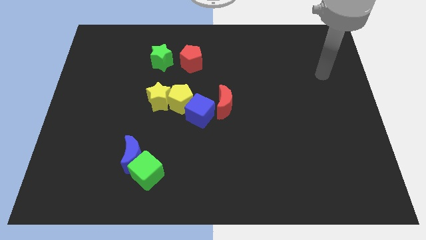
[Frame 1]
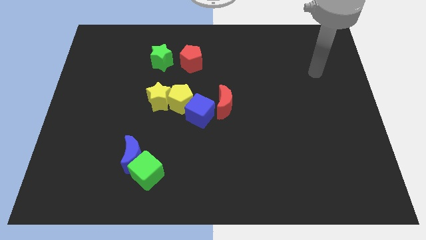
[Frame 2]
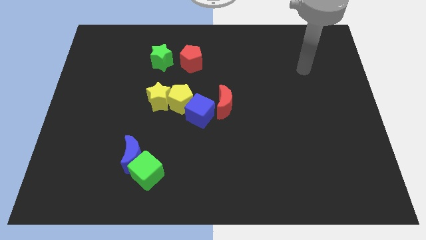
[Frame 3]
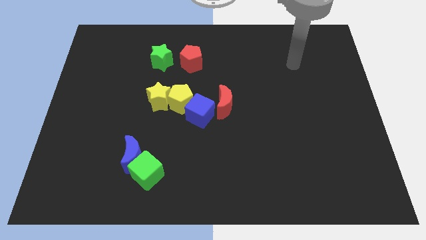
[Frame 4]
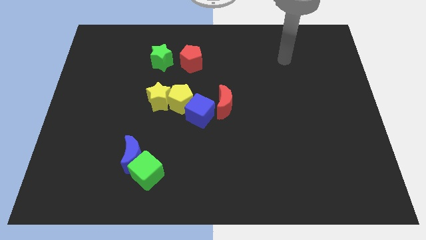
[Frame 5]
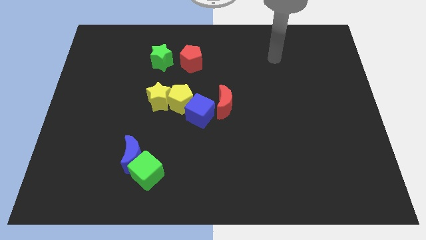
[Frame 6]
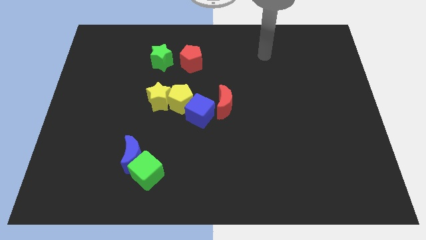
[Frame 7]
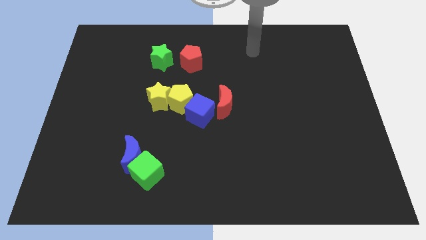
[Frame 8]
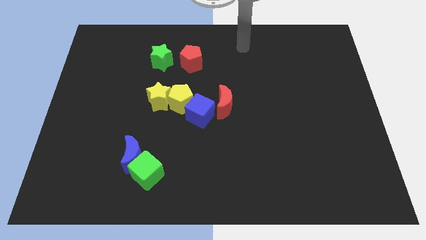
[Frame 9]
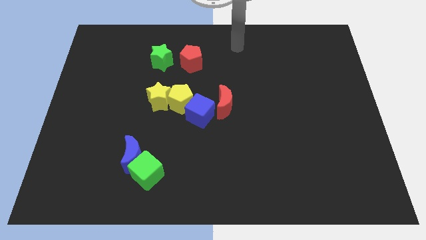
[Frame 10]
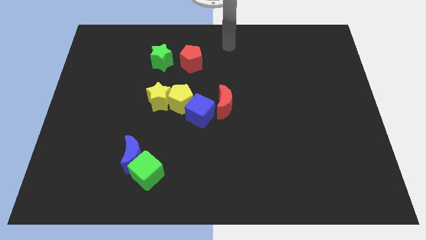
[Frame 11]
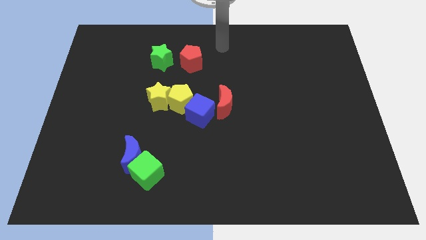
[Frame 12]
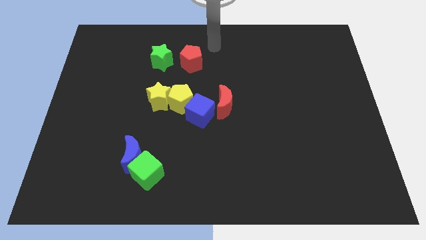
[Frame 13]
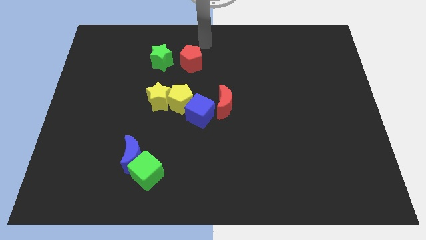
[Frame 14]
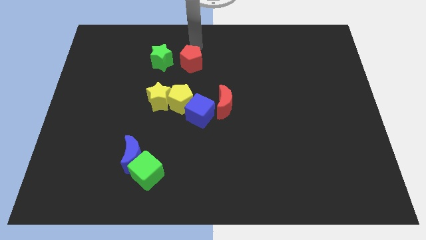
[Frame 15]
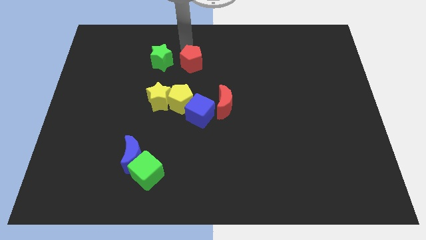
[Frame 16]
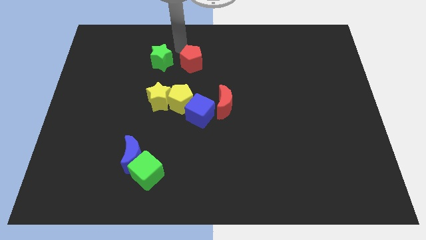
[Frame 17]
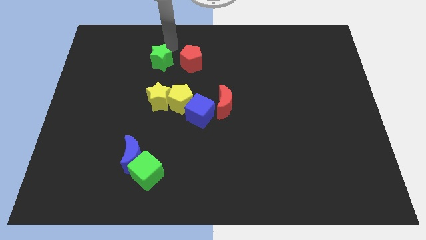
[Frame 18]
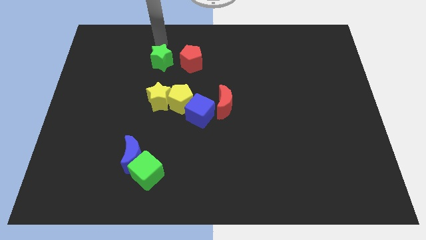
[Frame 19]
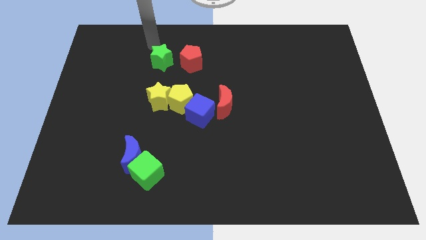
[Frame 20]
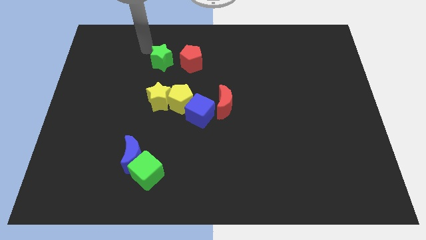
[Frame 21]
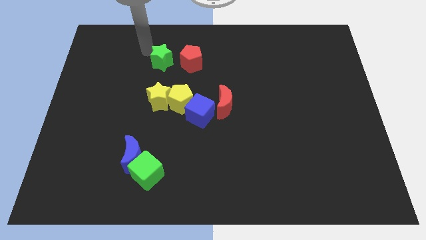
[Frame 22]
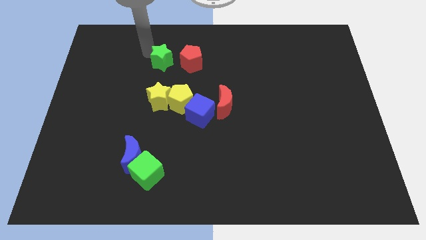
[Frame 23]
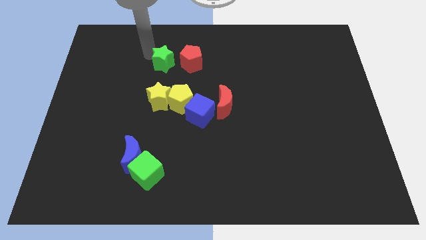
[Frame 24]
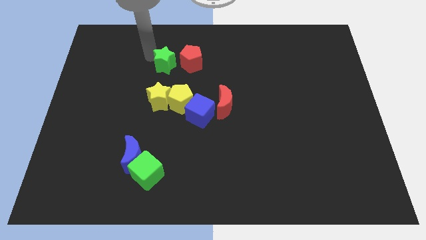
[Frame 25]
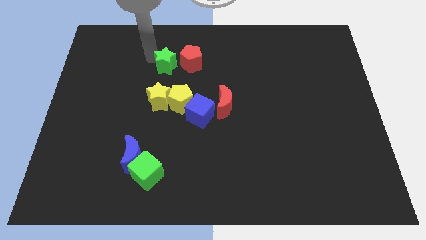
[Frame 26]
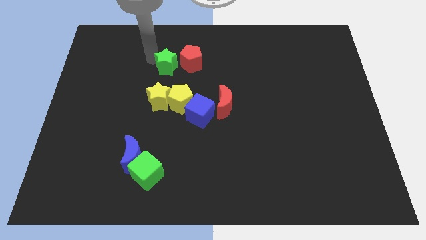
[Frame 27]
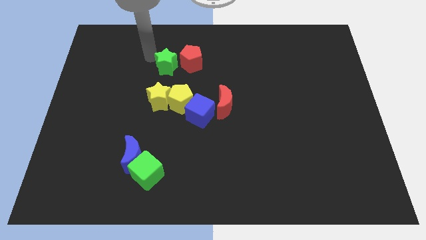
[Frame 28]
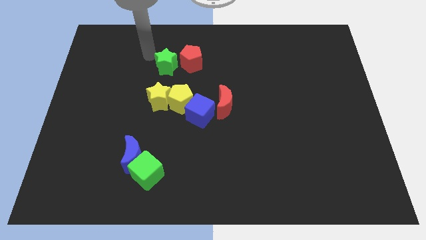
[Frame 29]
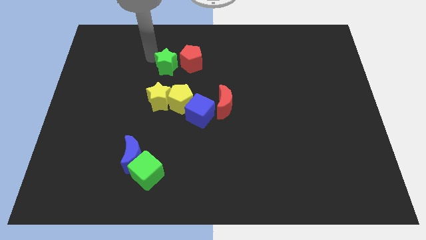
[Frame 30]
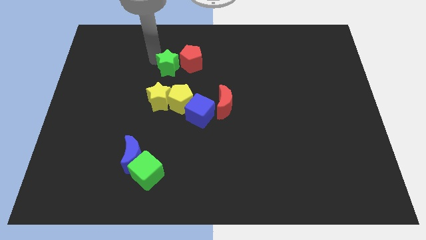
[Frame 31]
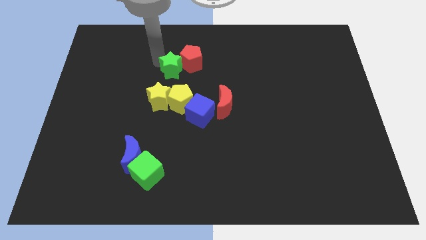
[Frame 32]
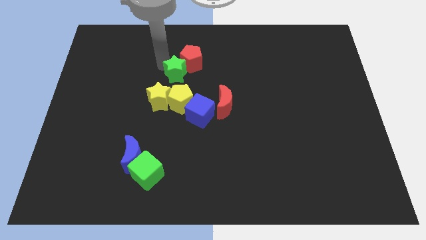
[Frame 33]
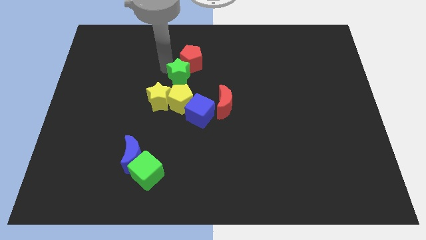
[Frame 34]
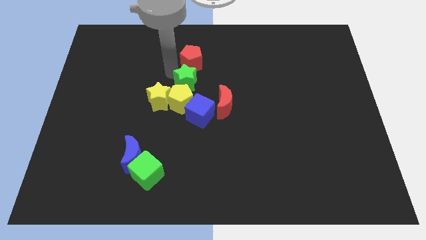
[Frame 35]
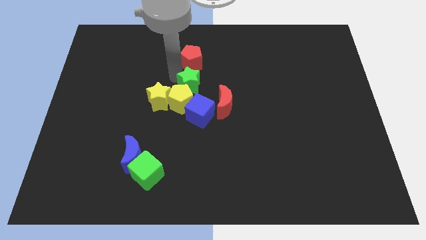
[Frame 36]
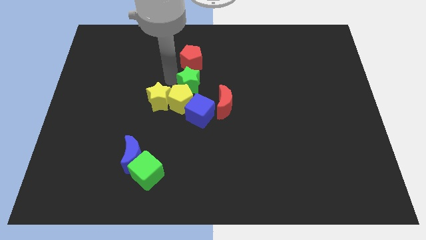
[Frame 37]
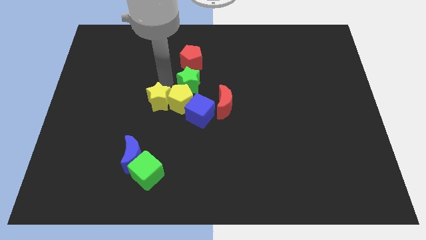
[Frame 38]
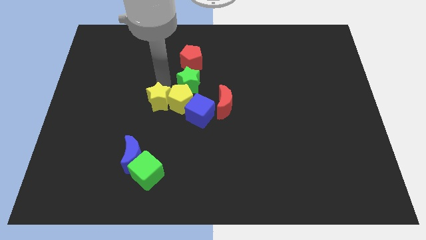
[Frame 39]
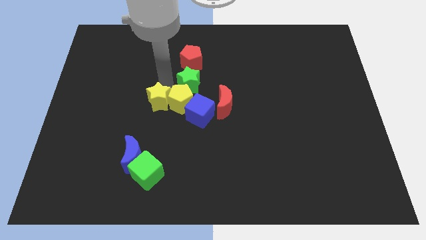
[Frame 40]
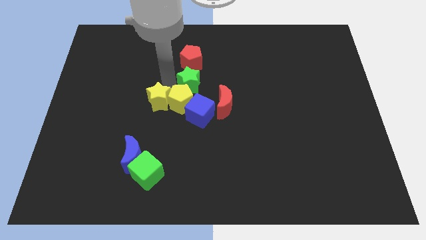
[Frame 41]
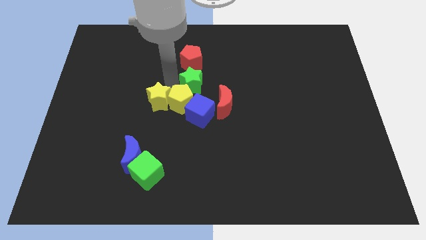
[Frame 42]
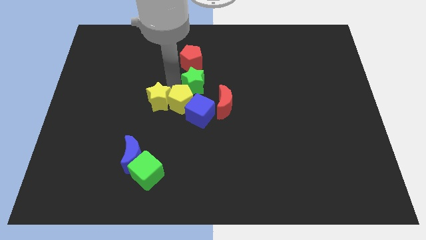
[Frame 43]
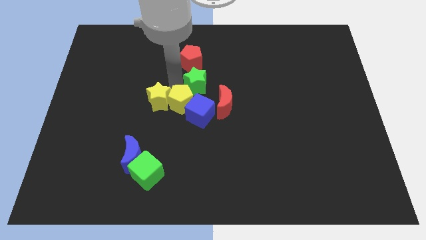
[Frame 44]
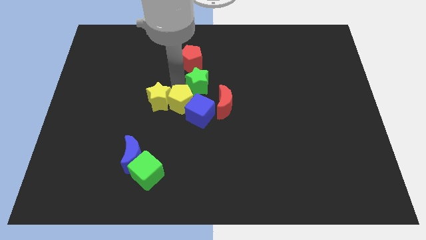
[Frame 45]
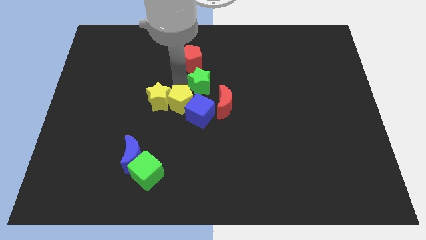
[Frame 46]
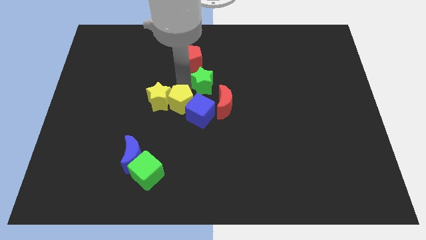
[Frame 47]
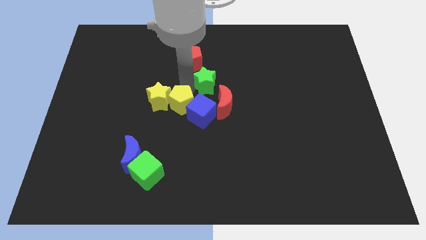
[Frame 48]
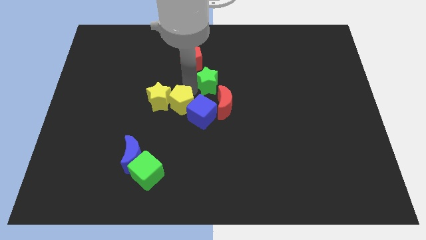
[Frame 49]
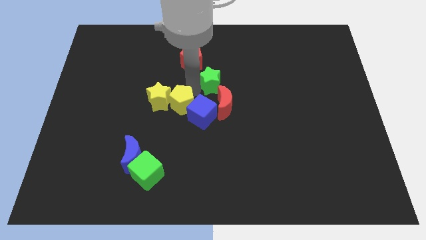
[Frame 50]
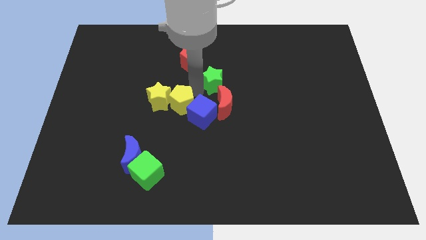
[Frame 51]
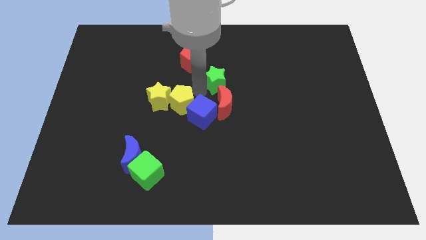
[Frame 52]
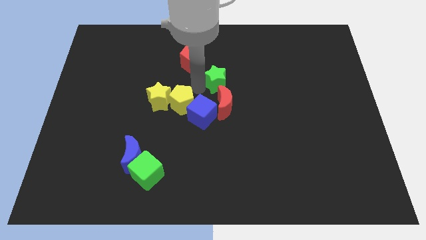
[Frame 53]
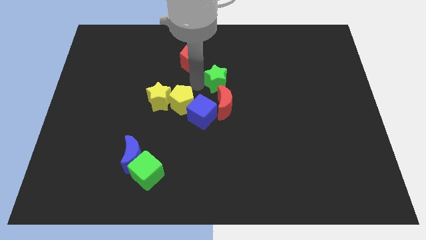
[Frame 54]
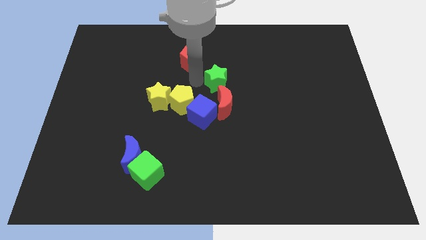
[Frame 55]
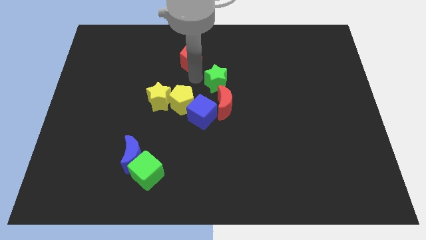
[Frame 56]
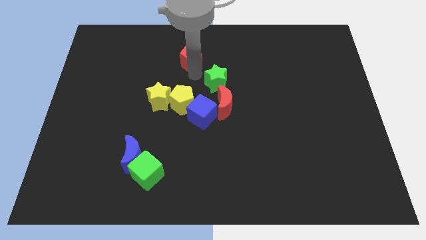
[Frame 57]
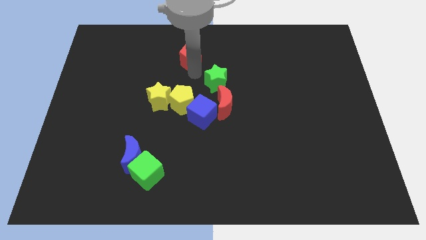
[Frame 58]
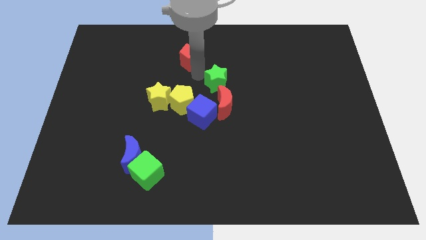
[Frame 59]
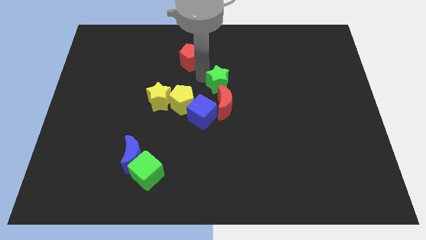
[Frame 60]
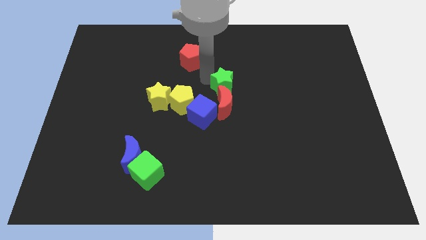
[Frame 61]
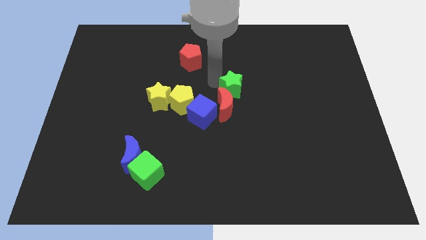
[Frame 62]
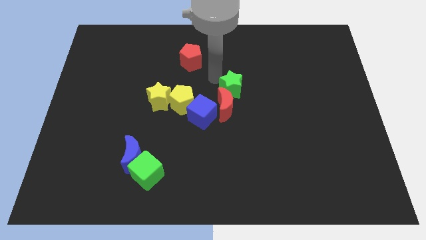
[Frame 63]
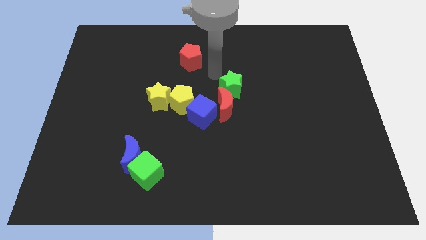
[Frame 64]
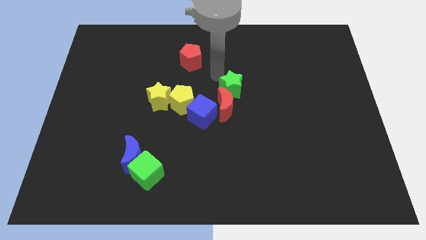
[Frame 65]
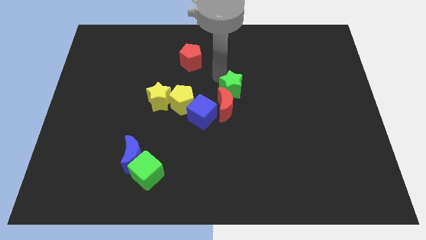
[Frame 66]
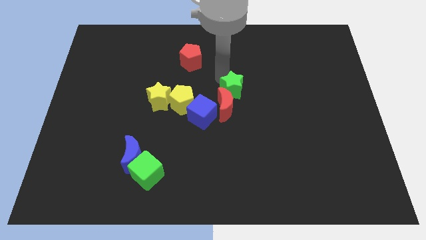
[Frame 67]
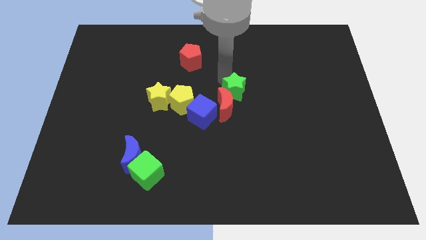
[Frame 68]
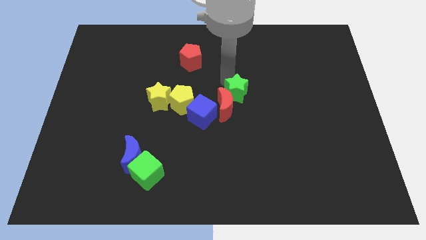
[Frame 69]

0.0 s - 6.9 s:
slide the green star downwards and right

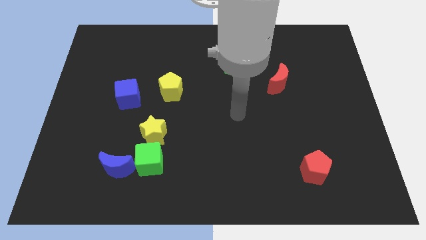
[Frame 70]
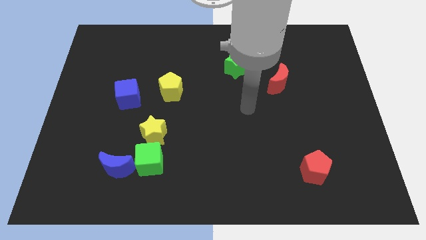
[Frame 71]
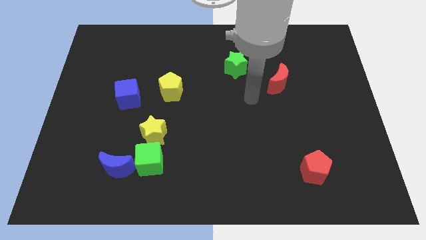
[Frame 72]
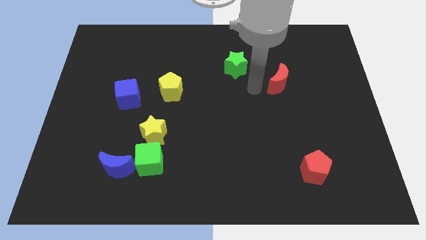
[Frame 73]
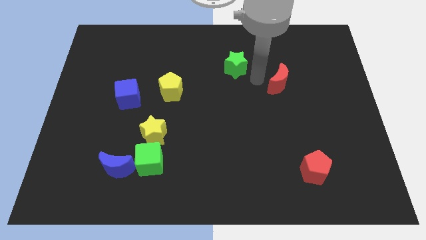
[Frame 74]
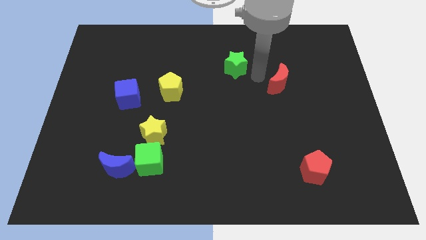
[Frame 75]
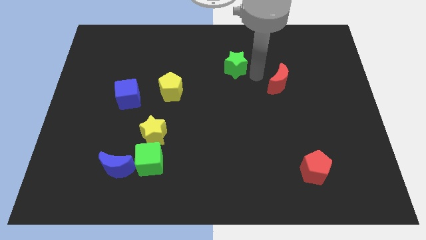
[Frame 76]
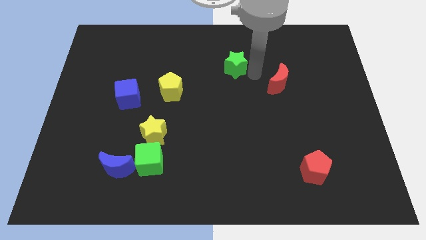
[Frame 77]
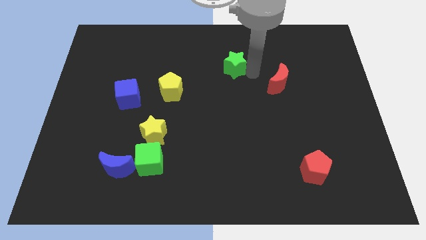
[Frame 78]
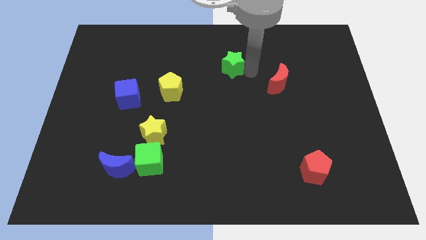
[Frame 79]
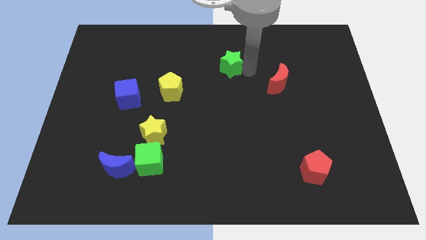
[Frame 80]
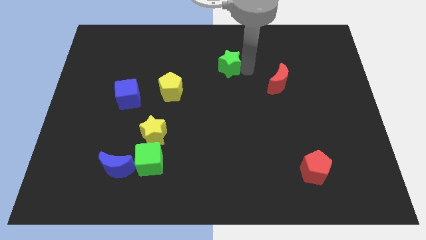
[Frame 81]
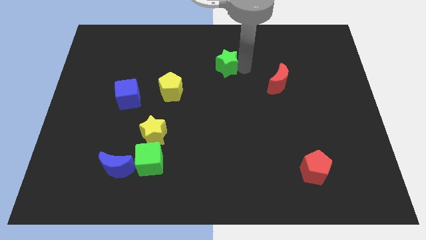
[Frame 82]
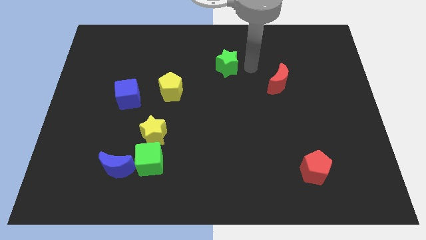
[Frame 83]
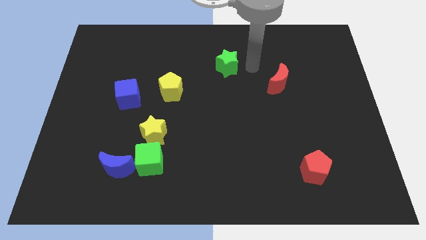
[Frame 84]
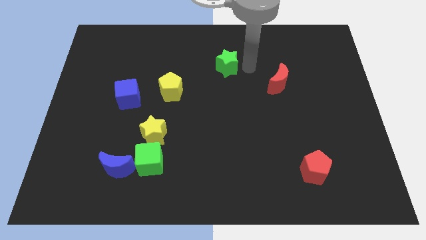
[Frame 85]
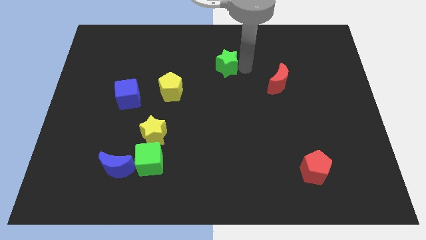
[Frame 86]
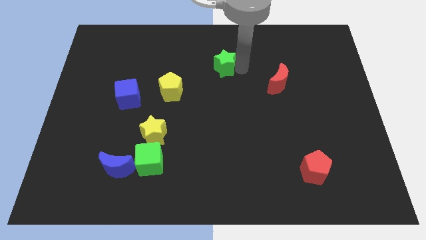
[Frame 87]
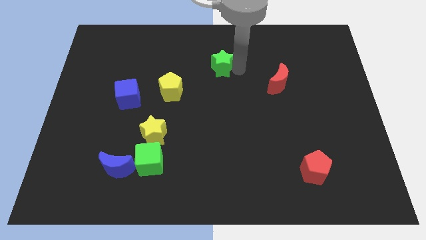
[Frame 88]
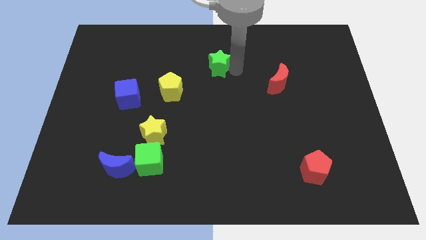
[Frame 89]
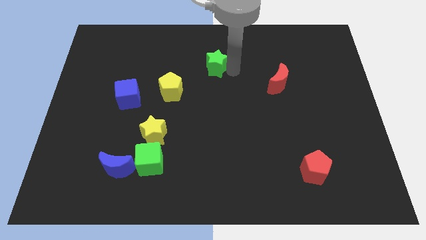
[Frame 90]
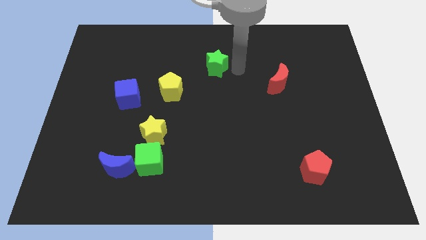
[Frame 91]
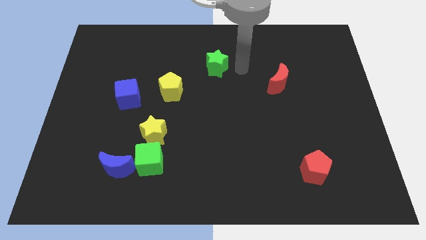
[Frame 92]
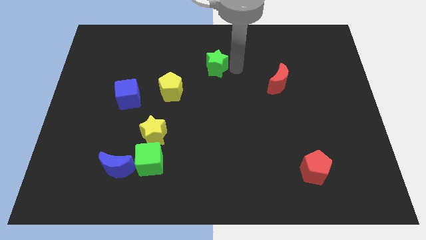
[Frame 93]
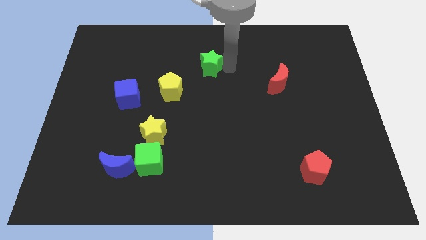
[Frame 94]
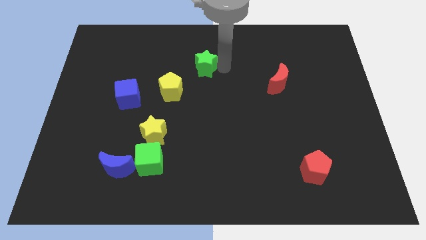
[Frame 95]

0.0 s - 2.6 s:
push the green star somewhat to the left
